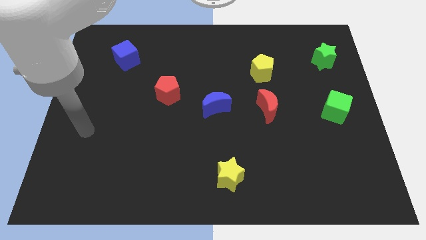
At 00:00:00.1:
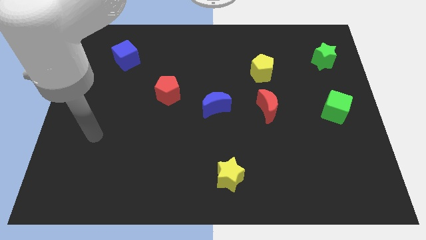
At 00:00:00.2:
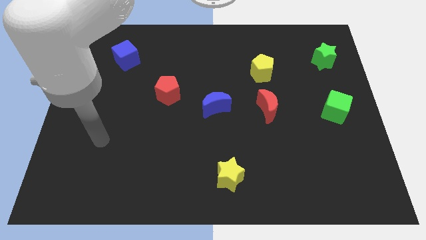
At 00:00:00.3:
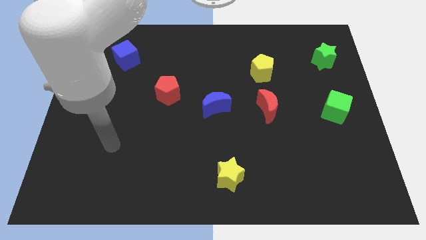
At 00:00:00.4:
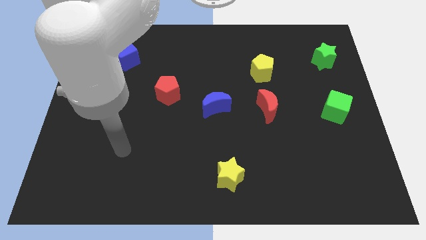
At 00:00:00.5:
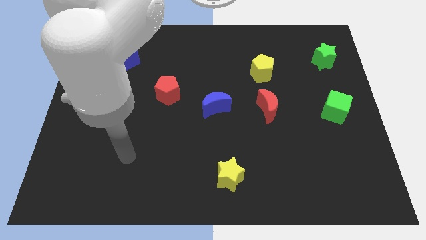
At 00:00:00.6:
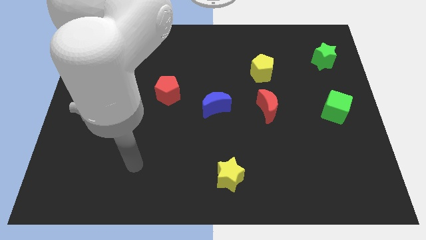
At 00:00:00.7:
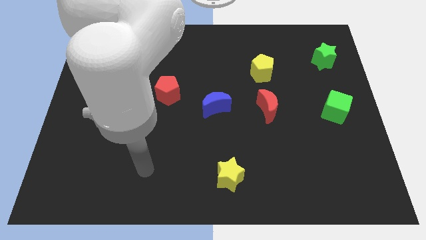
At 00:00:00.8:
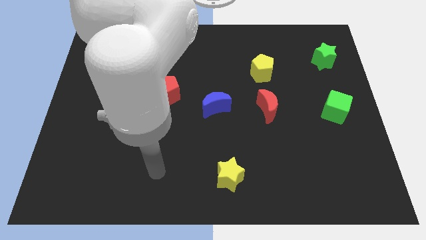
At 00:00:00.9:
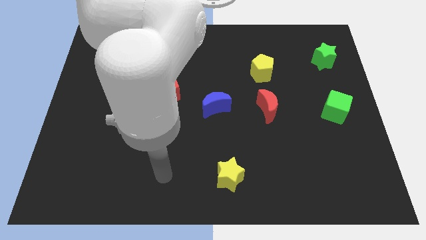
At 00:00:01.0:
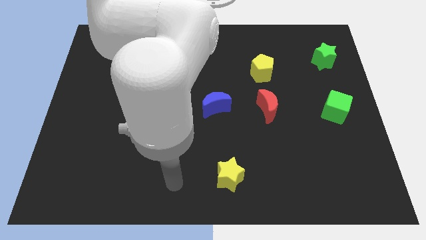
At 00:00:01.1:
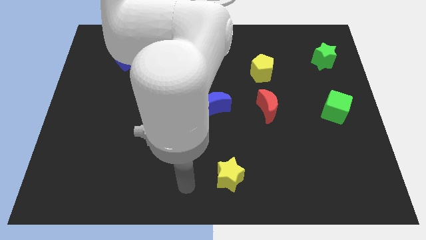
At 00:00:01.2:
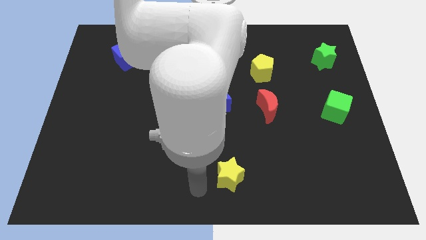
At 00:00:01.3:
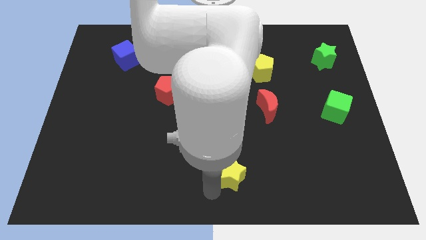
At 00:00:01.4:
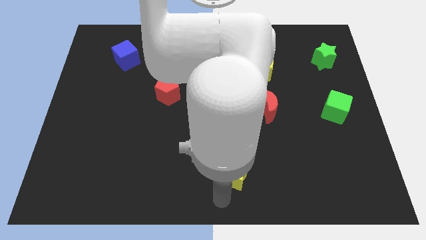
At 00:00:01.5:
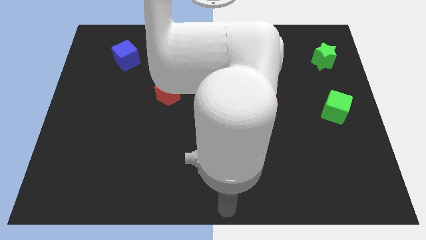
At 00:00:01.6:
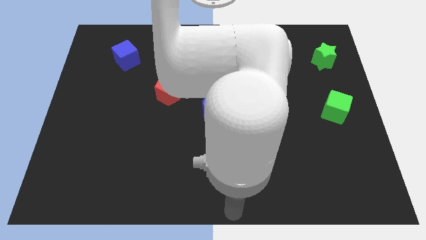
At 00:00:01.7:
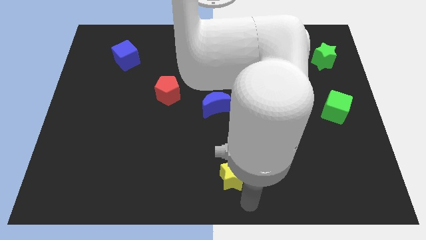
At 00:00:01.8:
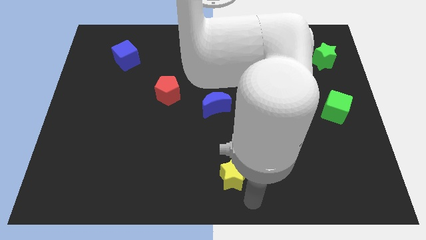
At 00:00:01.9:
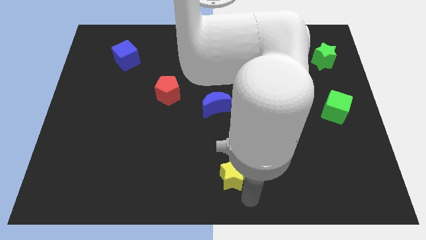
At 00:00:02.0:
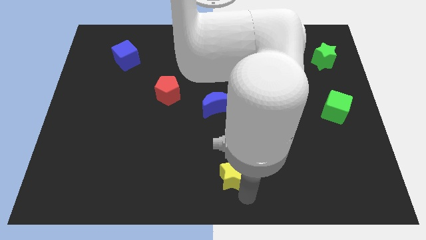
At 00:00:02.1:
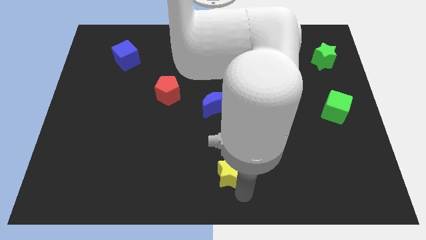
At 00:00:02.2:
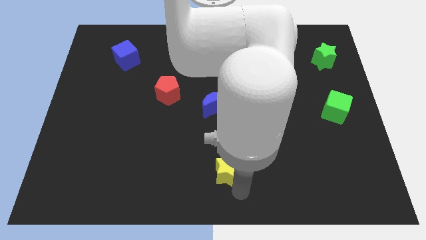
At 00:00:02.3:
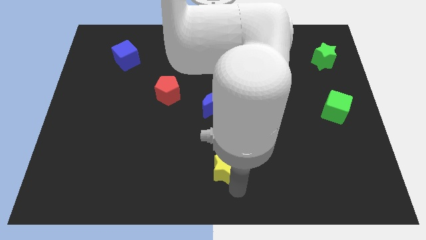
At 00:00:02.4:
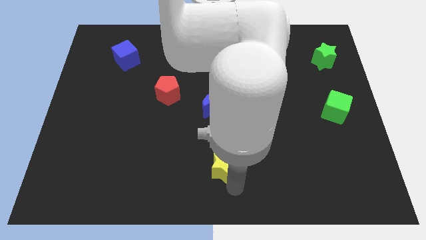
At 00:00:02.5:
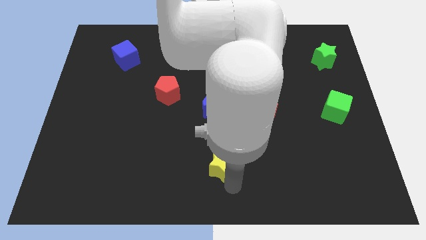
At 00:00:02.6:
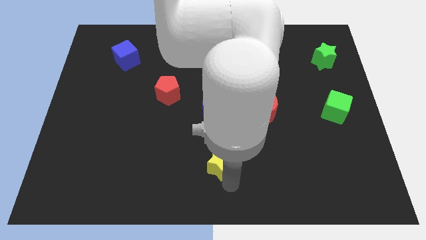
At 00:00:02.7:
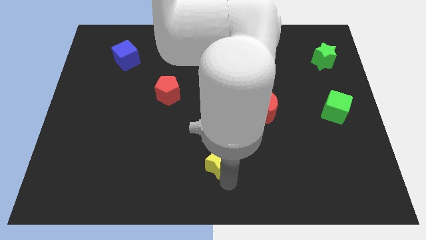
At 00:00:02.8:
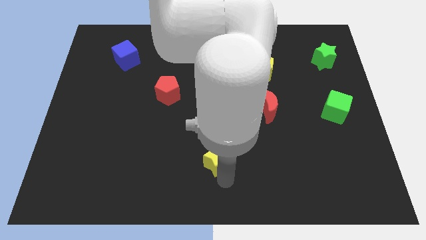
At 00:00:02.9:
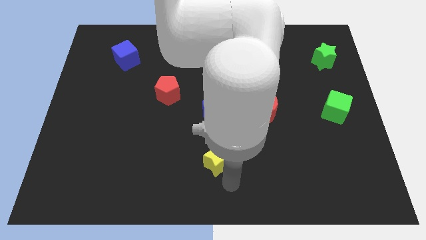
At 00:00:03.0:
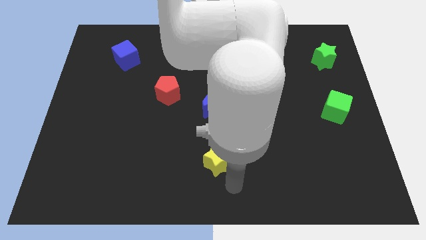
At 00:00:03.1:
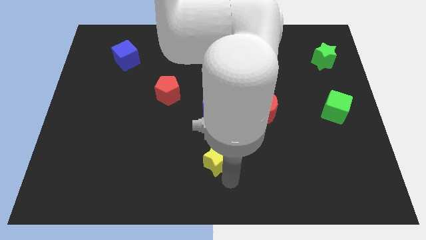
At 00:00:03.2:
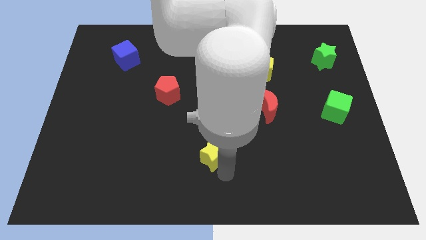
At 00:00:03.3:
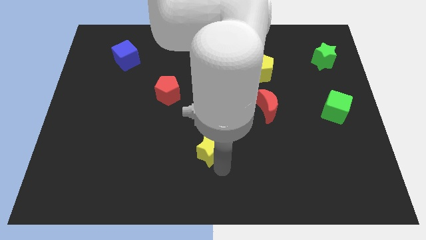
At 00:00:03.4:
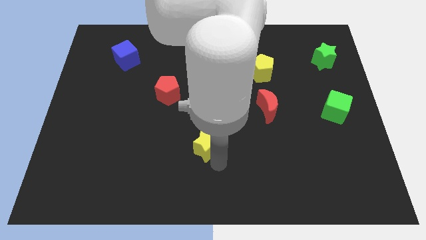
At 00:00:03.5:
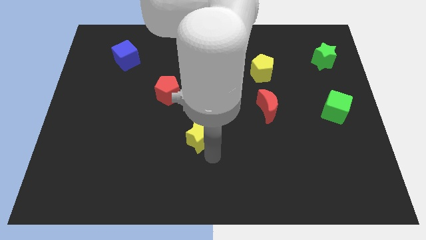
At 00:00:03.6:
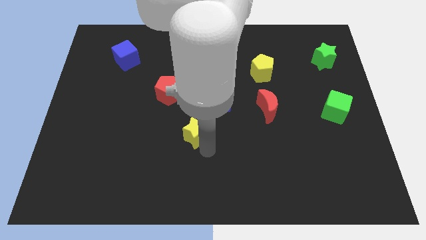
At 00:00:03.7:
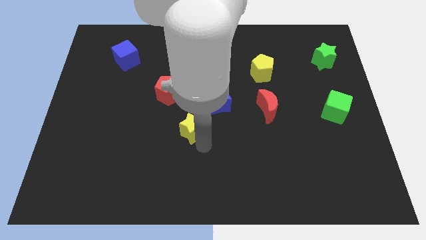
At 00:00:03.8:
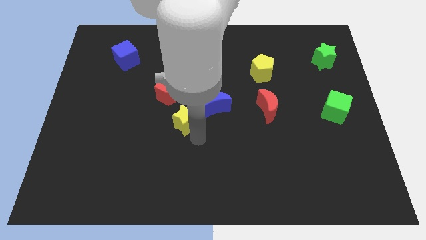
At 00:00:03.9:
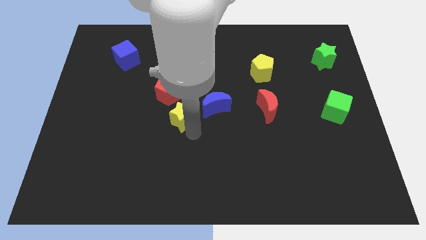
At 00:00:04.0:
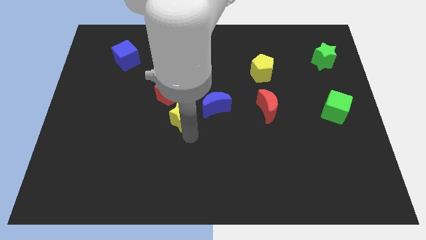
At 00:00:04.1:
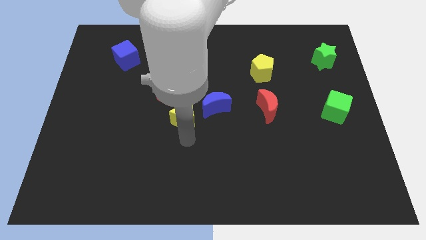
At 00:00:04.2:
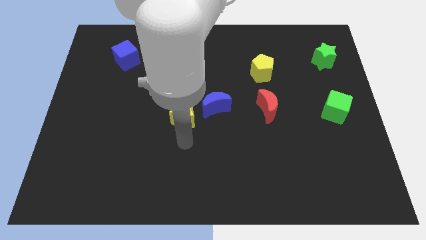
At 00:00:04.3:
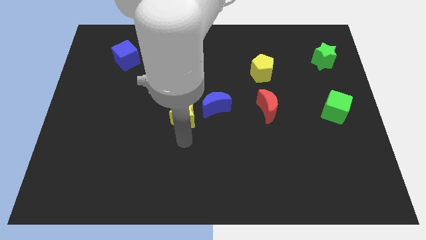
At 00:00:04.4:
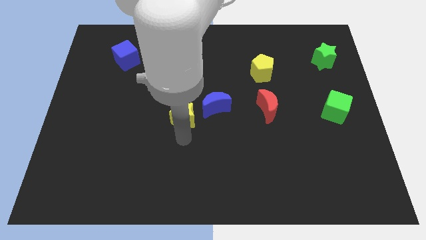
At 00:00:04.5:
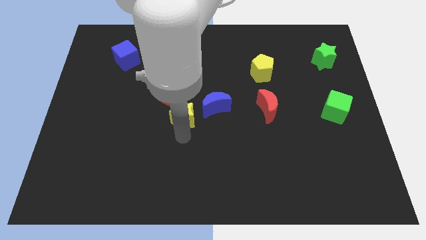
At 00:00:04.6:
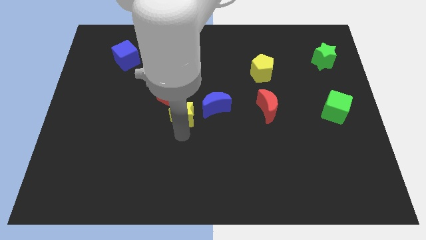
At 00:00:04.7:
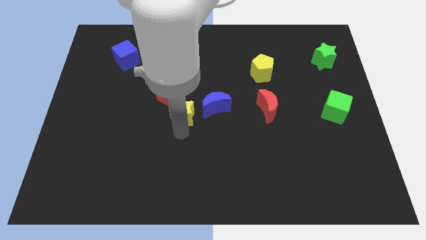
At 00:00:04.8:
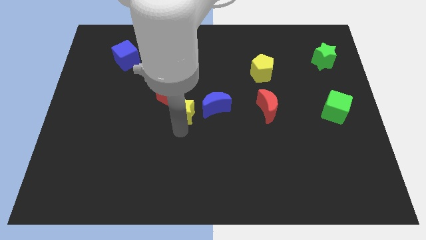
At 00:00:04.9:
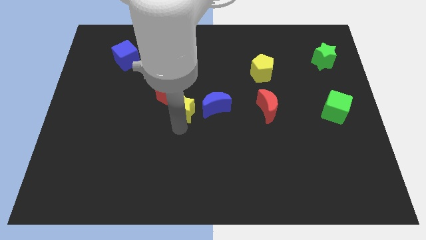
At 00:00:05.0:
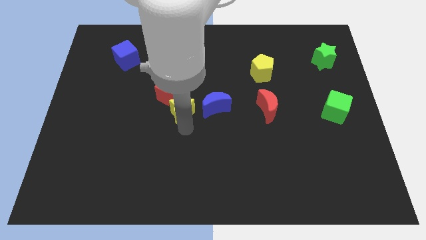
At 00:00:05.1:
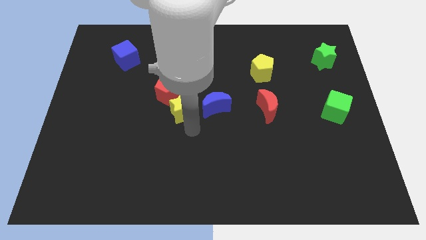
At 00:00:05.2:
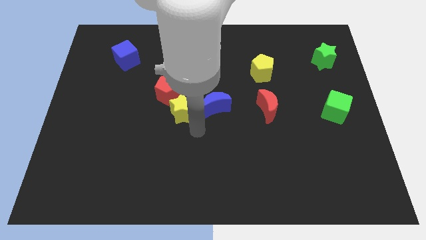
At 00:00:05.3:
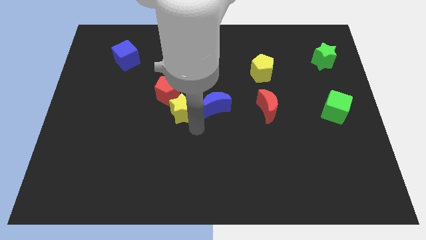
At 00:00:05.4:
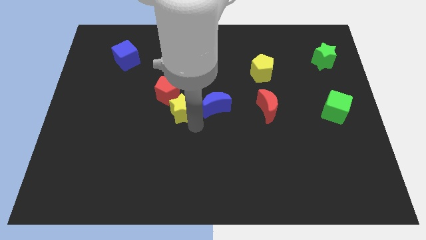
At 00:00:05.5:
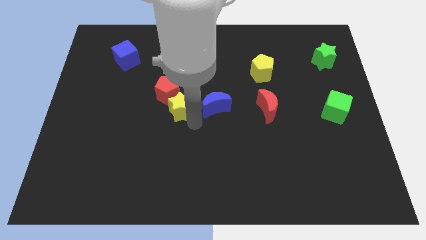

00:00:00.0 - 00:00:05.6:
slide the yellow star towards the red pentagon
